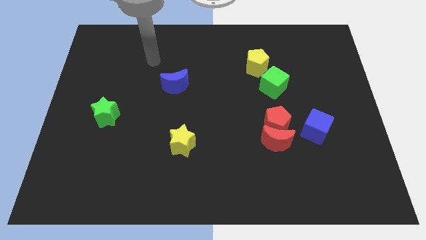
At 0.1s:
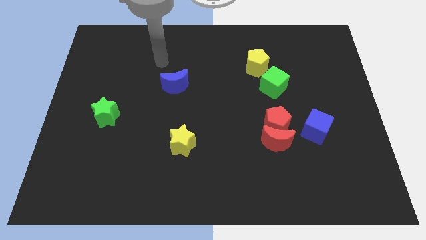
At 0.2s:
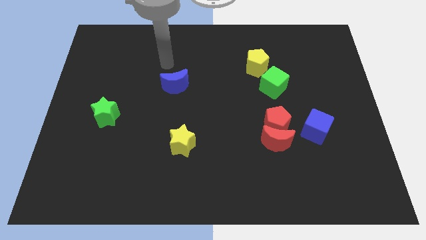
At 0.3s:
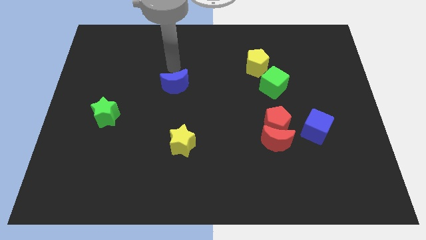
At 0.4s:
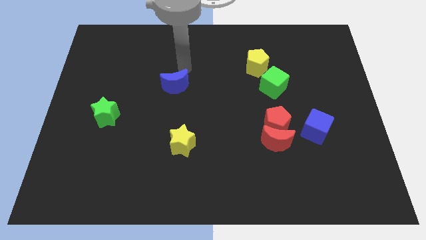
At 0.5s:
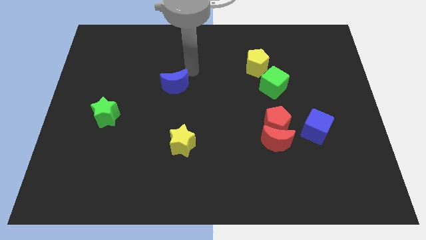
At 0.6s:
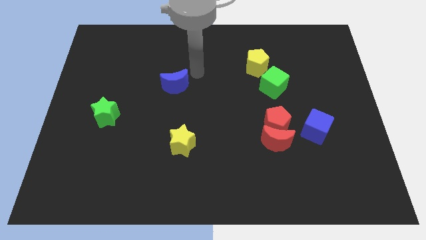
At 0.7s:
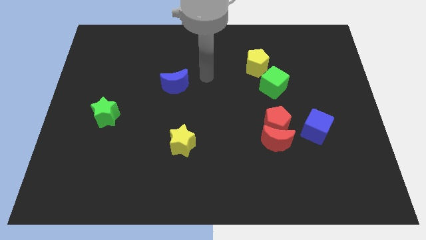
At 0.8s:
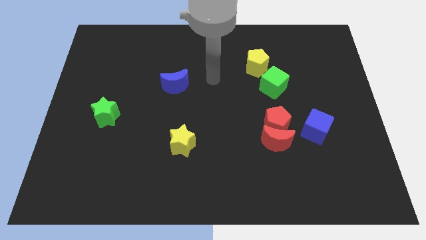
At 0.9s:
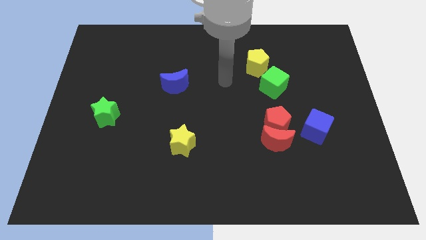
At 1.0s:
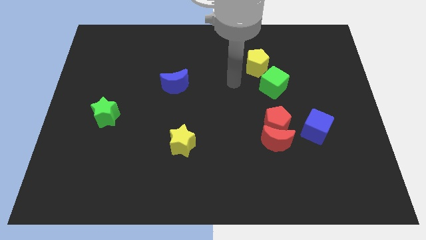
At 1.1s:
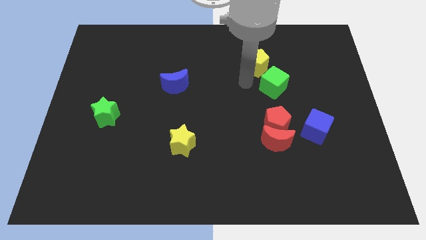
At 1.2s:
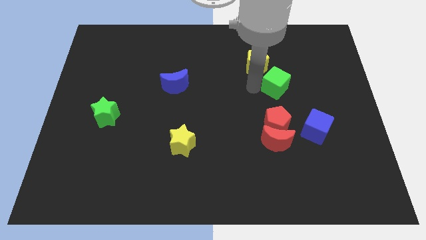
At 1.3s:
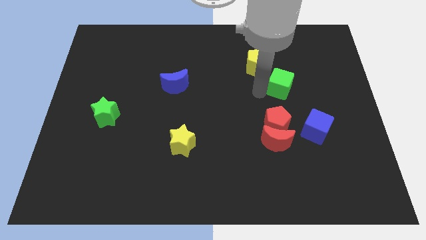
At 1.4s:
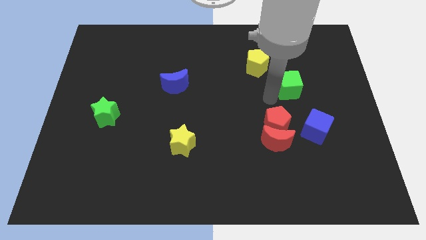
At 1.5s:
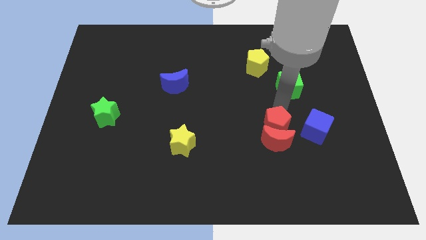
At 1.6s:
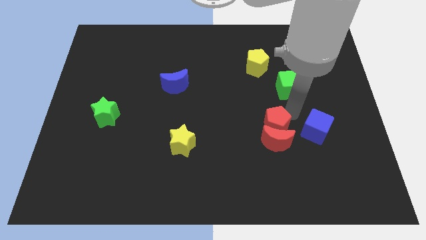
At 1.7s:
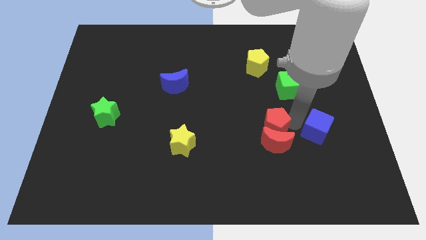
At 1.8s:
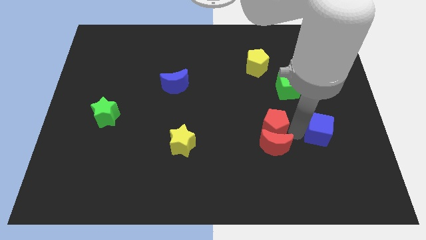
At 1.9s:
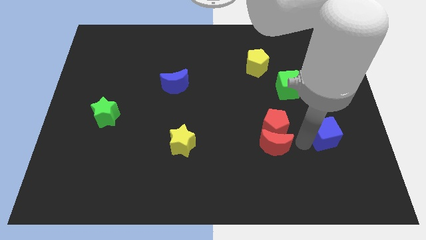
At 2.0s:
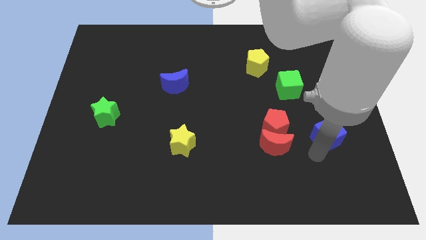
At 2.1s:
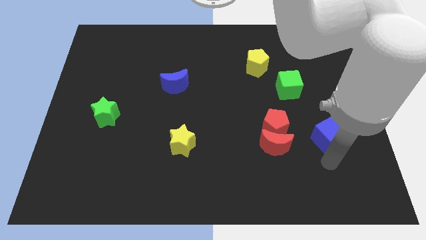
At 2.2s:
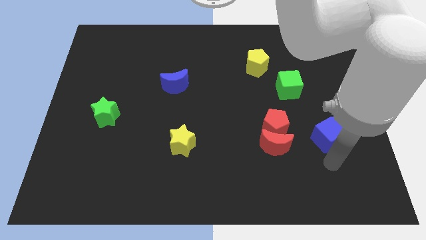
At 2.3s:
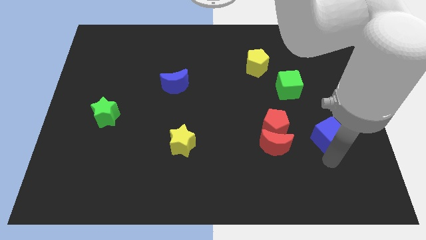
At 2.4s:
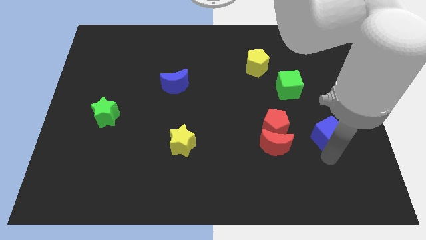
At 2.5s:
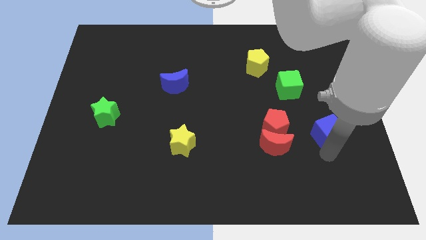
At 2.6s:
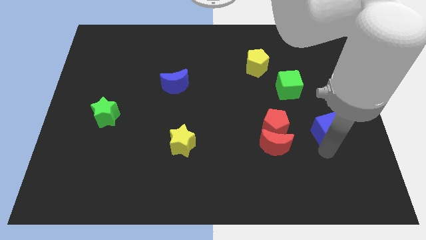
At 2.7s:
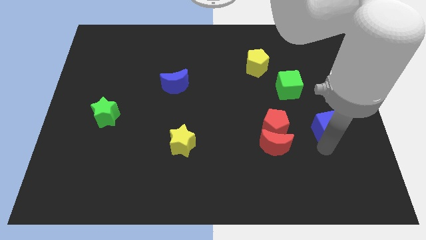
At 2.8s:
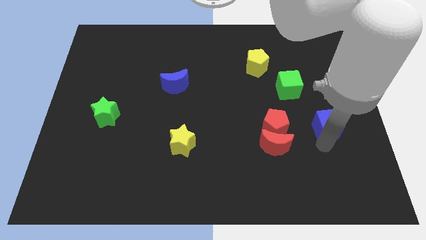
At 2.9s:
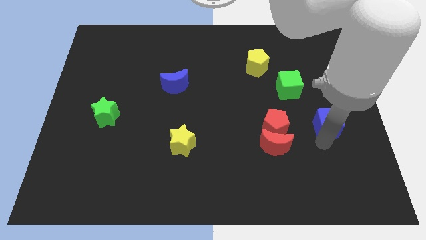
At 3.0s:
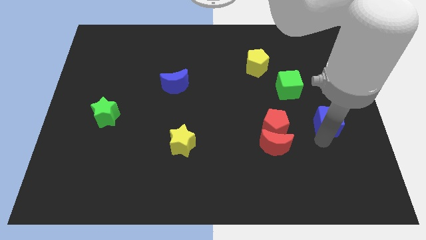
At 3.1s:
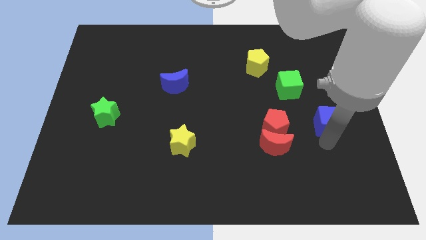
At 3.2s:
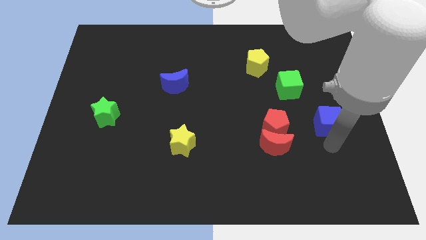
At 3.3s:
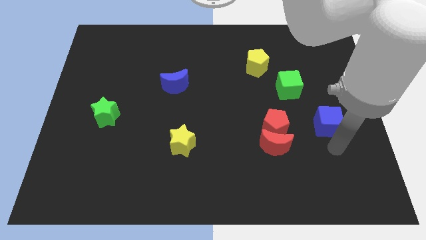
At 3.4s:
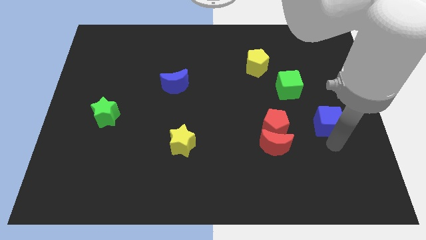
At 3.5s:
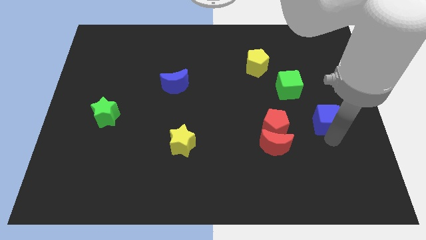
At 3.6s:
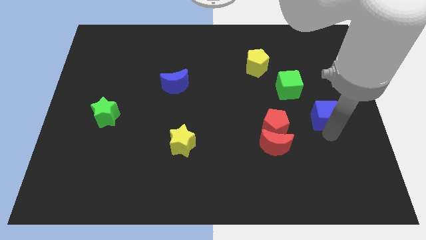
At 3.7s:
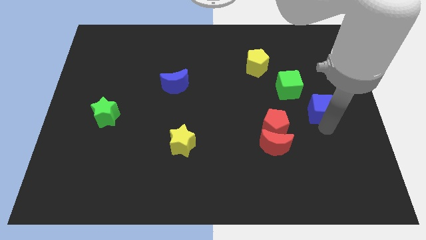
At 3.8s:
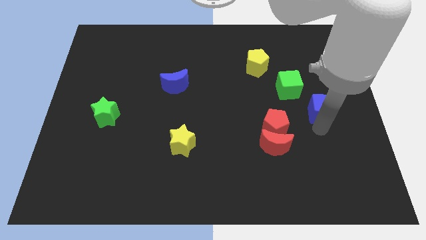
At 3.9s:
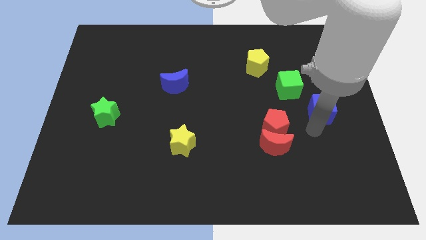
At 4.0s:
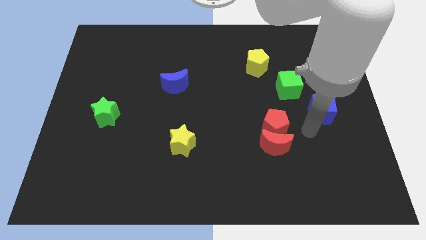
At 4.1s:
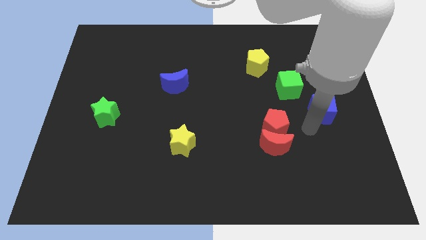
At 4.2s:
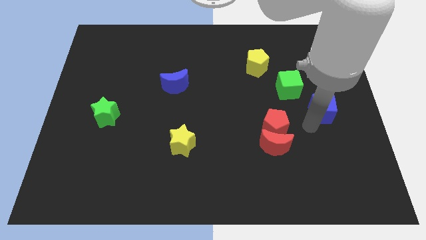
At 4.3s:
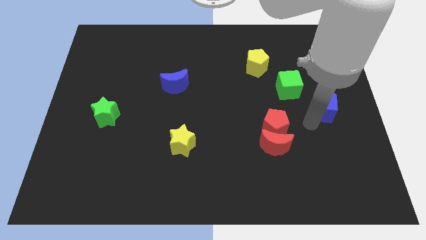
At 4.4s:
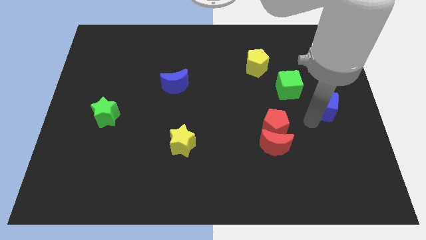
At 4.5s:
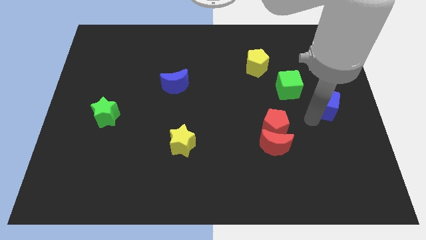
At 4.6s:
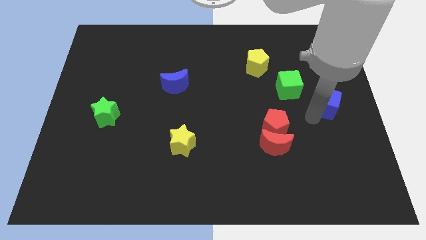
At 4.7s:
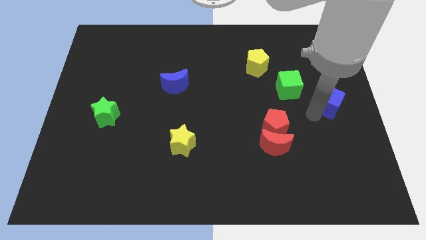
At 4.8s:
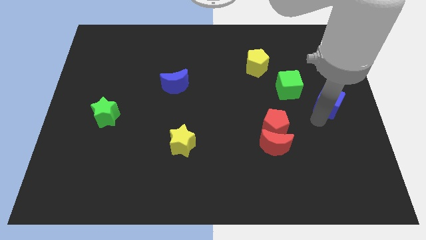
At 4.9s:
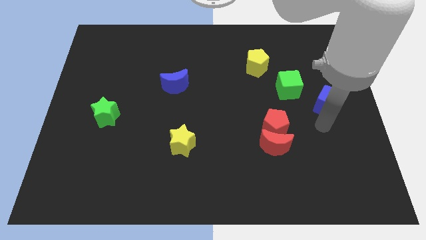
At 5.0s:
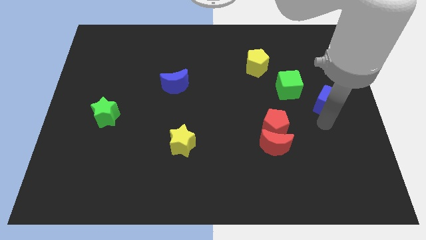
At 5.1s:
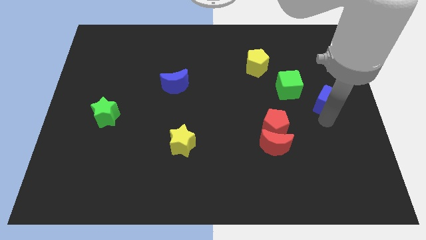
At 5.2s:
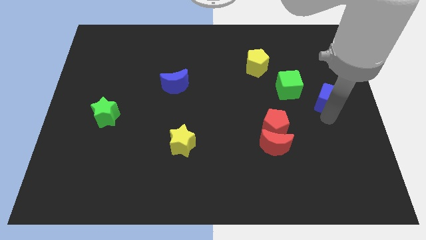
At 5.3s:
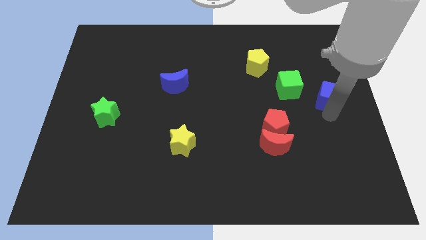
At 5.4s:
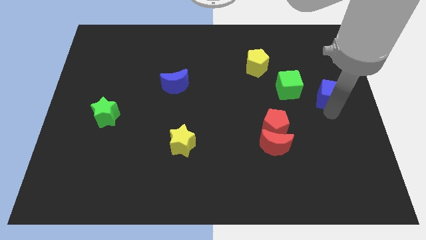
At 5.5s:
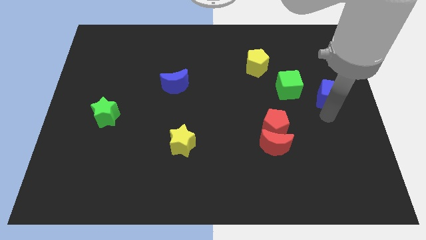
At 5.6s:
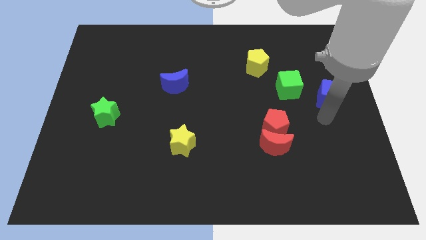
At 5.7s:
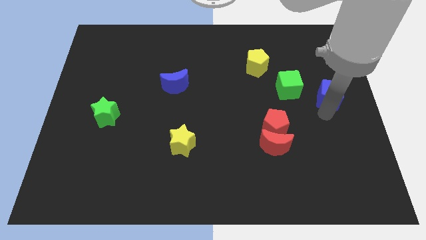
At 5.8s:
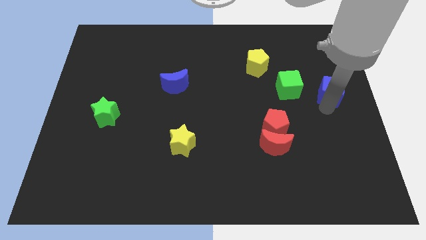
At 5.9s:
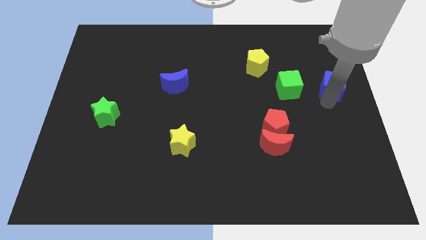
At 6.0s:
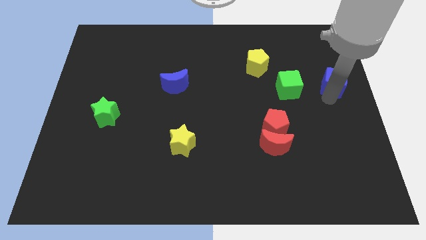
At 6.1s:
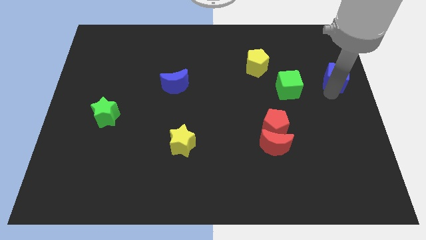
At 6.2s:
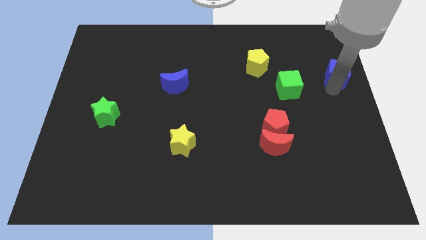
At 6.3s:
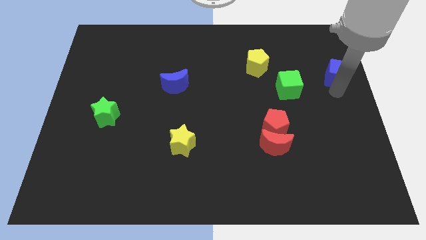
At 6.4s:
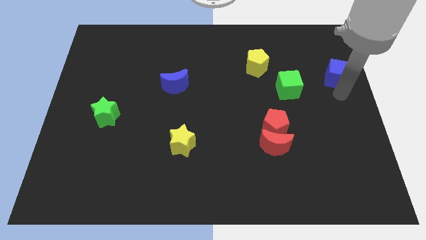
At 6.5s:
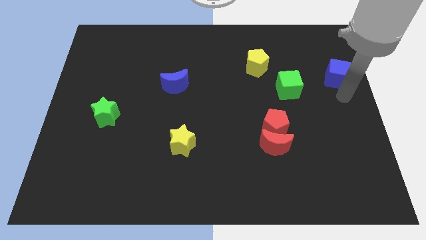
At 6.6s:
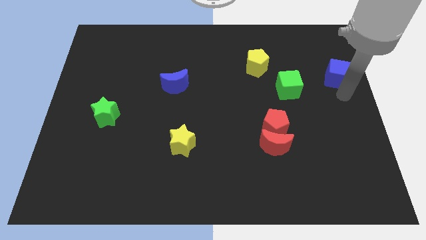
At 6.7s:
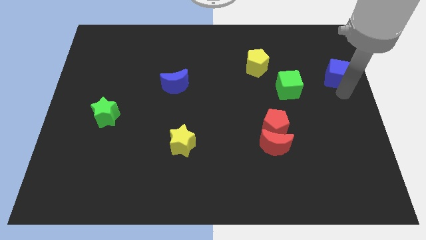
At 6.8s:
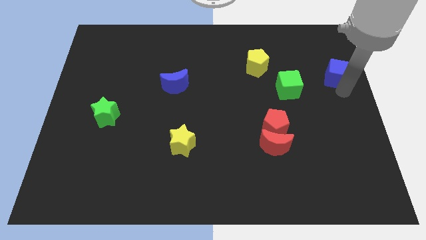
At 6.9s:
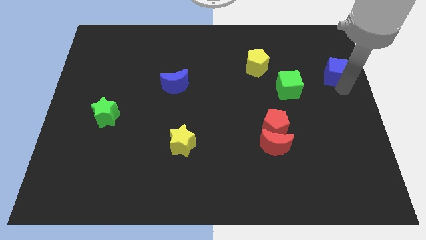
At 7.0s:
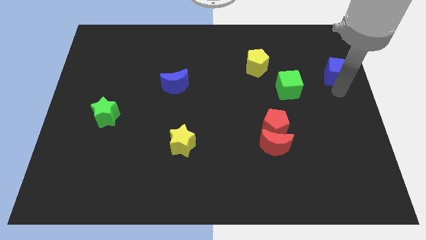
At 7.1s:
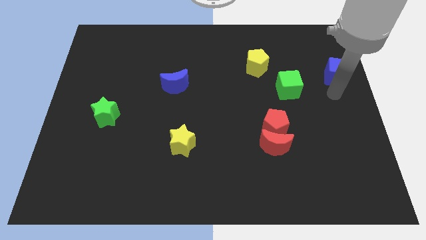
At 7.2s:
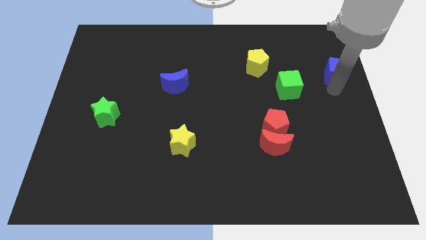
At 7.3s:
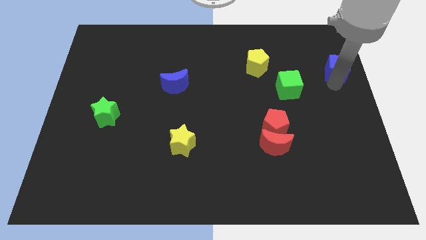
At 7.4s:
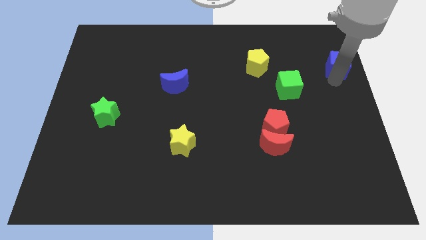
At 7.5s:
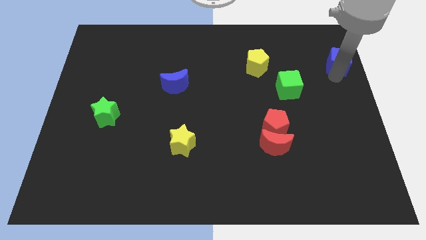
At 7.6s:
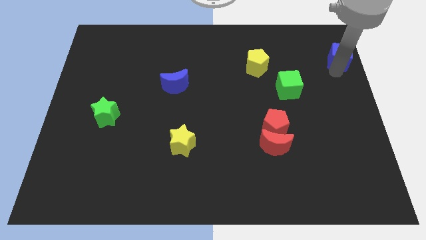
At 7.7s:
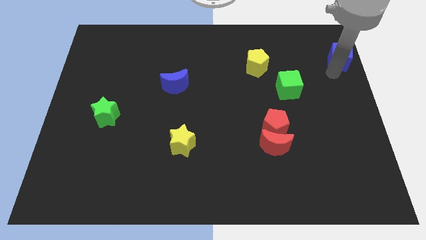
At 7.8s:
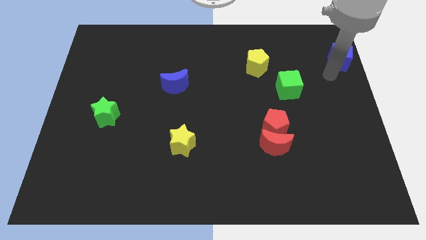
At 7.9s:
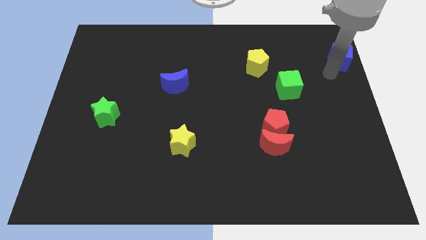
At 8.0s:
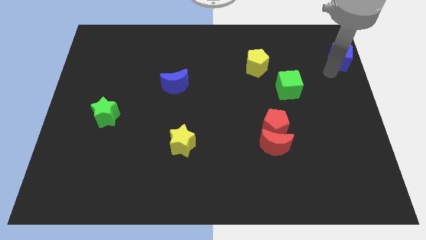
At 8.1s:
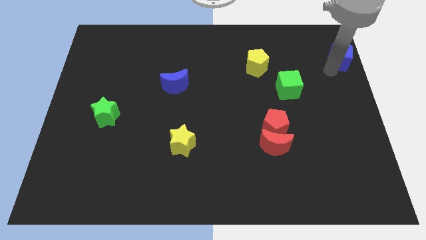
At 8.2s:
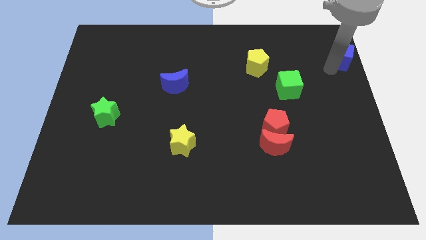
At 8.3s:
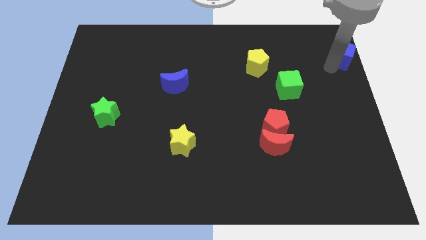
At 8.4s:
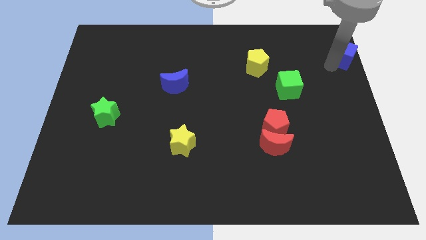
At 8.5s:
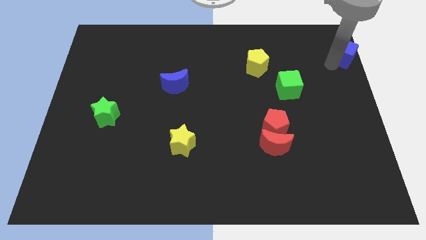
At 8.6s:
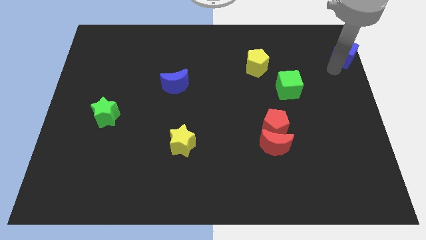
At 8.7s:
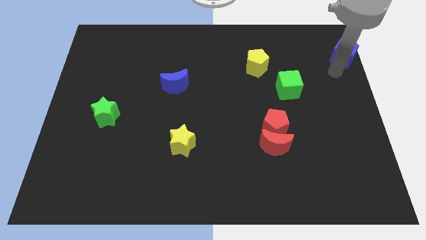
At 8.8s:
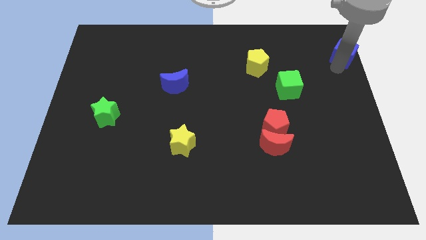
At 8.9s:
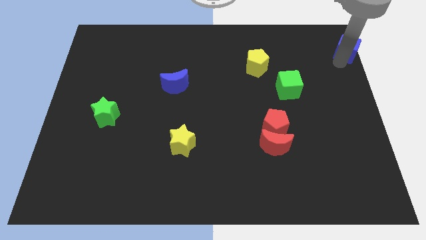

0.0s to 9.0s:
put the blue cube to the top right
